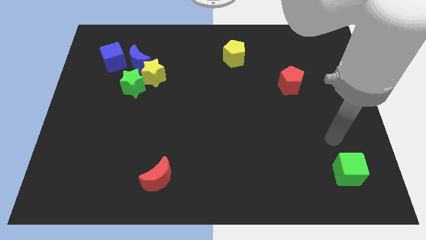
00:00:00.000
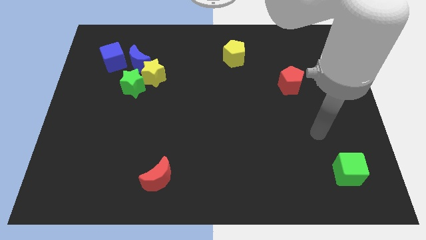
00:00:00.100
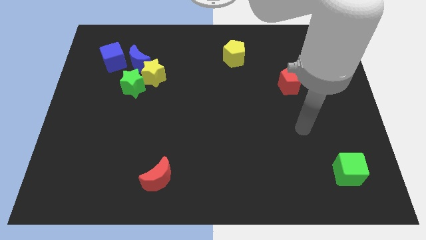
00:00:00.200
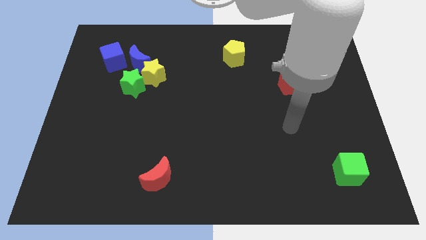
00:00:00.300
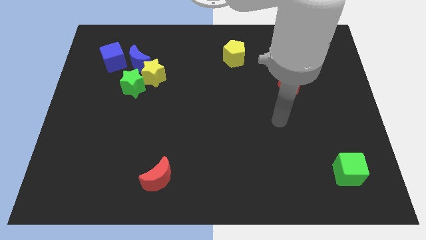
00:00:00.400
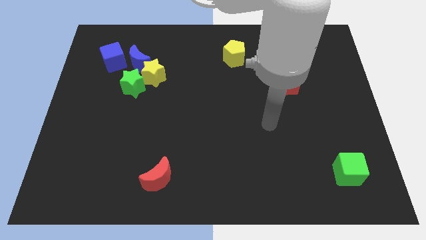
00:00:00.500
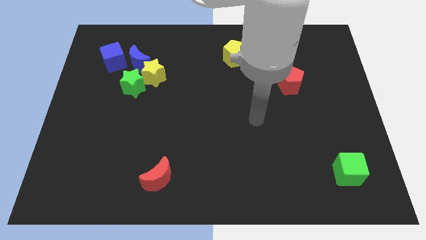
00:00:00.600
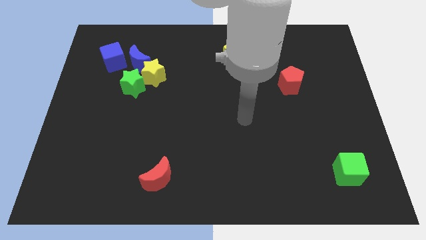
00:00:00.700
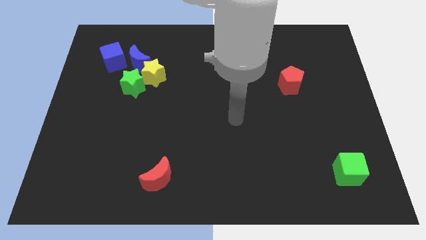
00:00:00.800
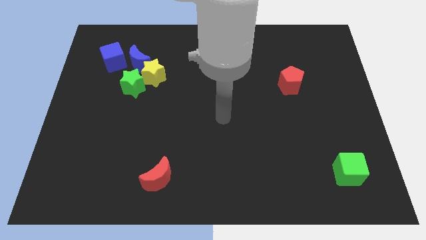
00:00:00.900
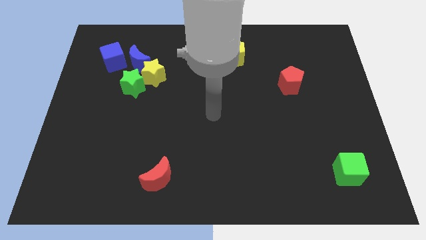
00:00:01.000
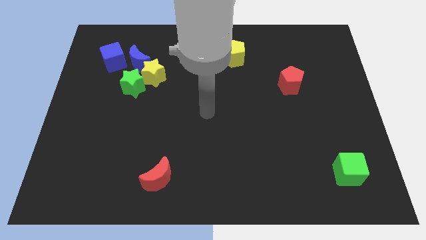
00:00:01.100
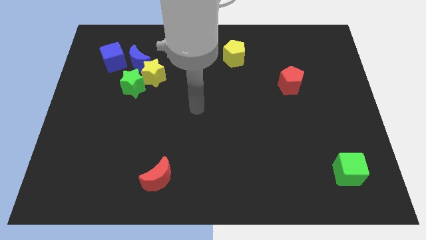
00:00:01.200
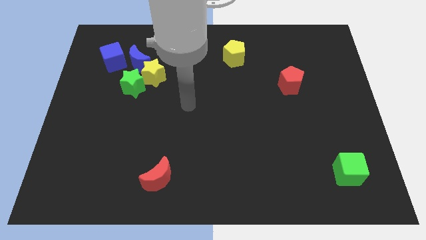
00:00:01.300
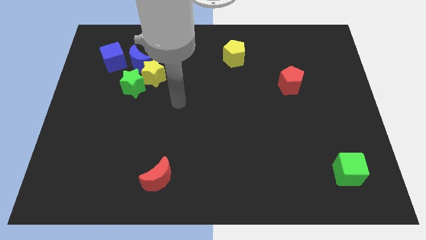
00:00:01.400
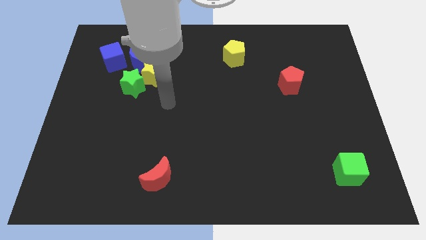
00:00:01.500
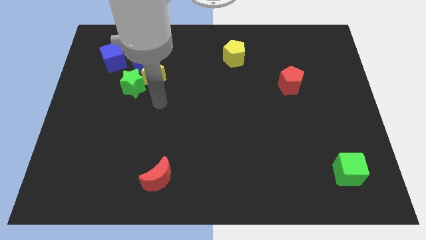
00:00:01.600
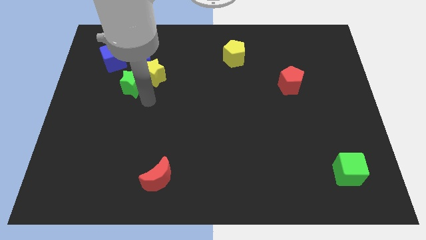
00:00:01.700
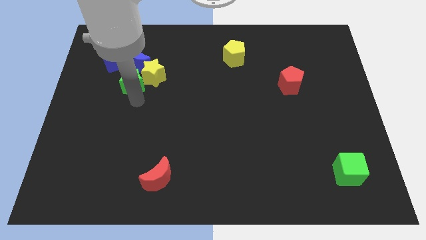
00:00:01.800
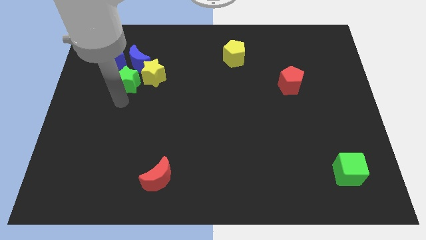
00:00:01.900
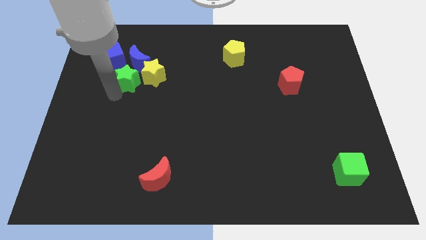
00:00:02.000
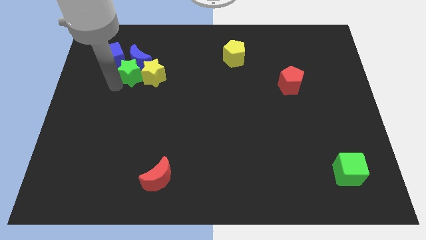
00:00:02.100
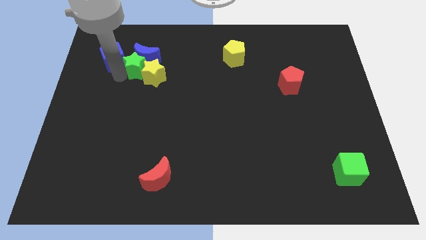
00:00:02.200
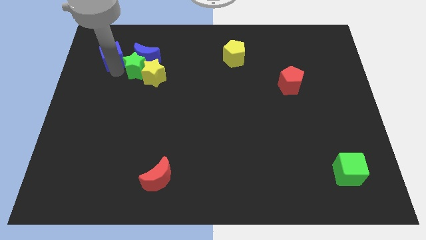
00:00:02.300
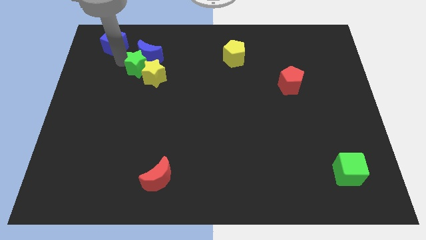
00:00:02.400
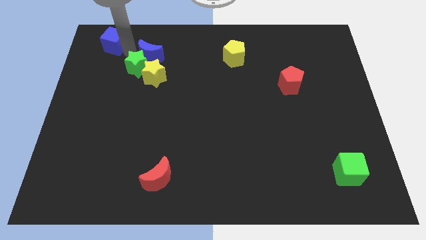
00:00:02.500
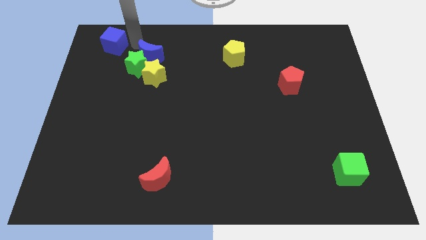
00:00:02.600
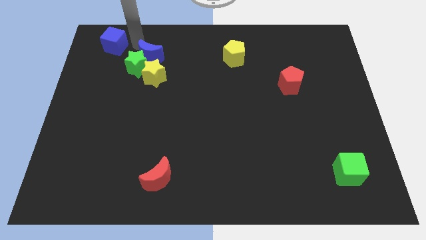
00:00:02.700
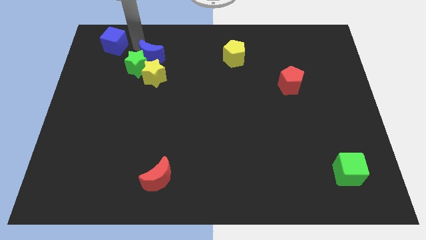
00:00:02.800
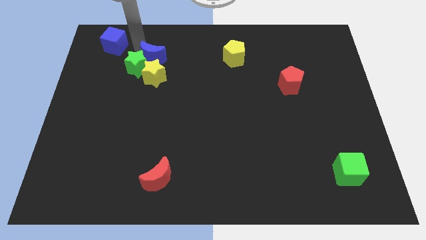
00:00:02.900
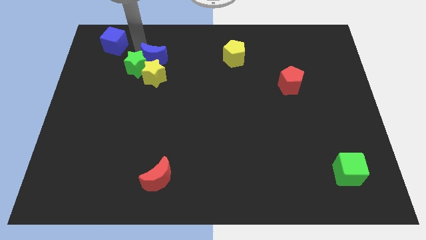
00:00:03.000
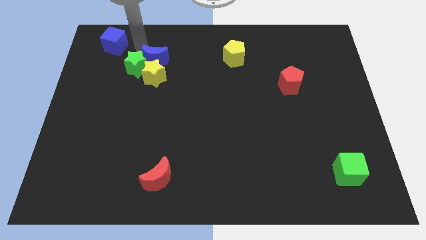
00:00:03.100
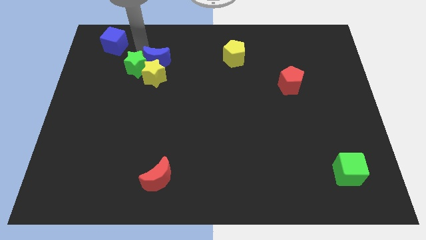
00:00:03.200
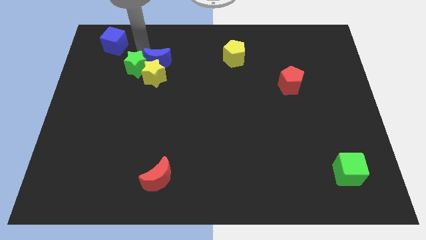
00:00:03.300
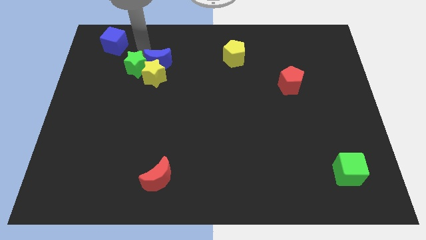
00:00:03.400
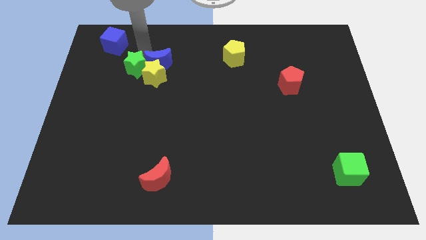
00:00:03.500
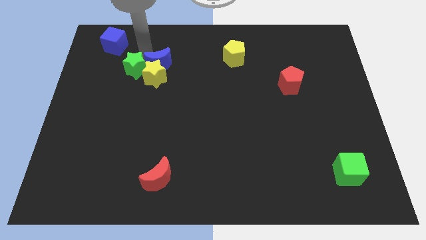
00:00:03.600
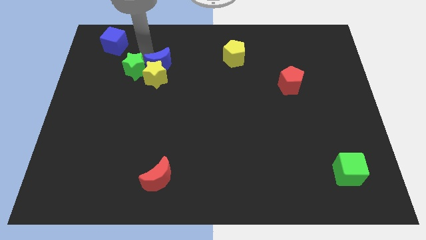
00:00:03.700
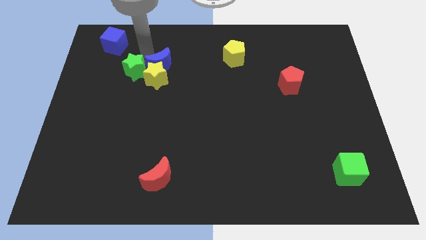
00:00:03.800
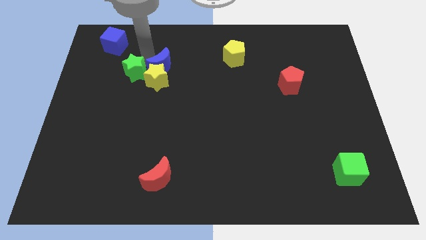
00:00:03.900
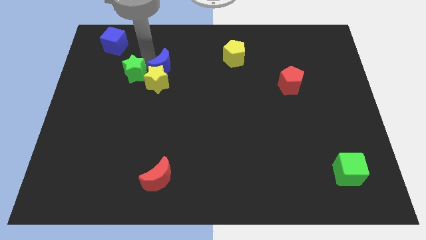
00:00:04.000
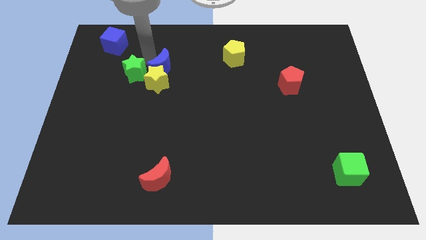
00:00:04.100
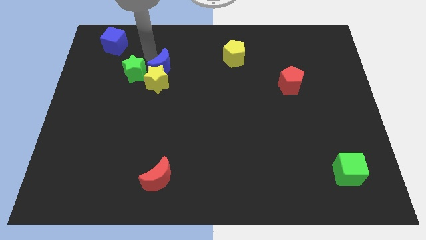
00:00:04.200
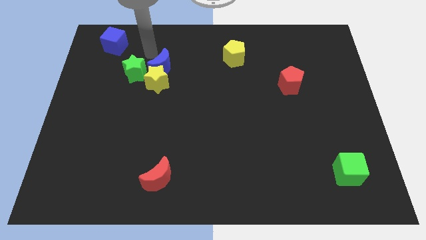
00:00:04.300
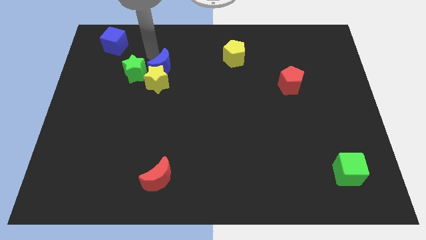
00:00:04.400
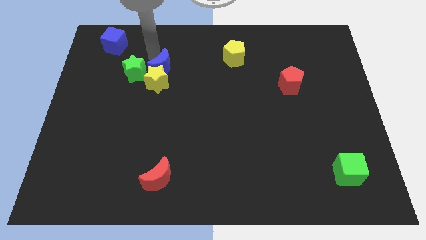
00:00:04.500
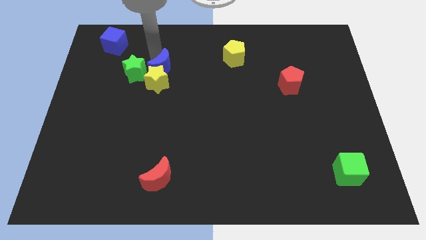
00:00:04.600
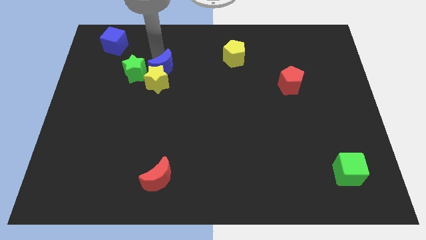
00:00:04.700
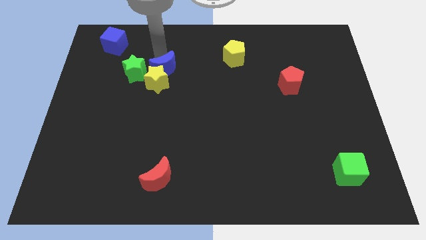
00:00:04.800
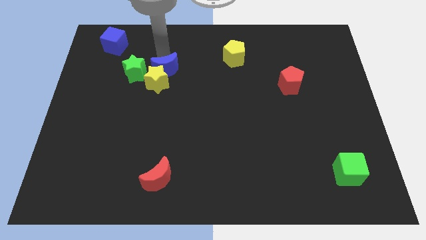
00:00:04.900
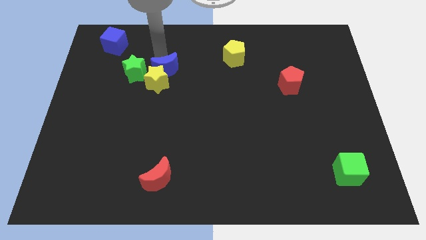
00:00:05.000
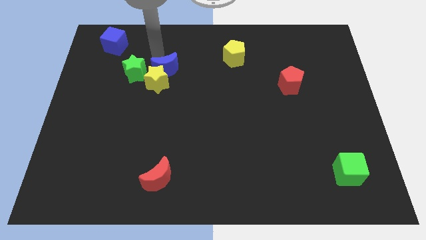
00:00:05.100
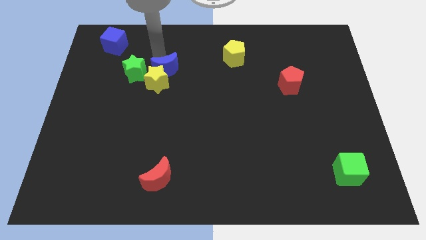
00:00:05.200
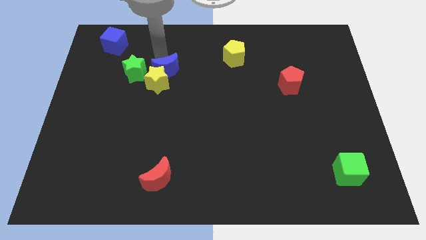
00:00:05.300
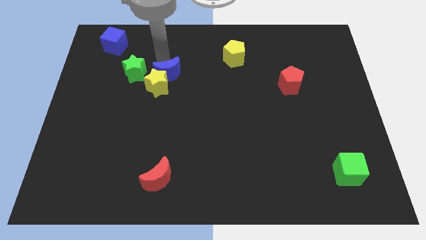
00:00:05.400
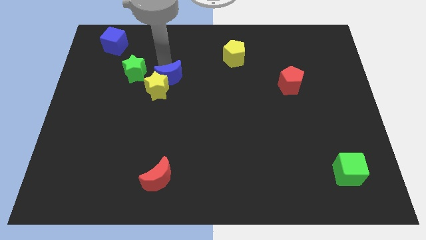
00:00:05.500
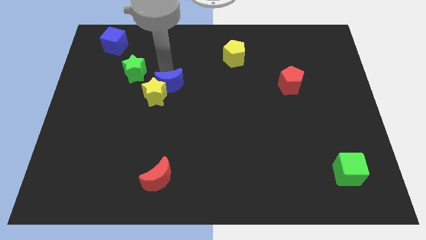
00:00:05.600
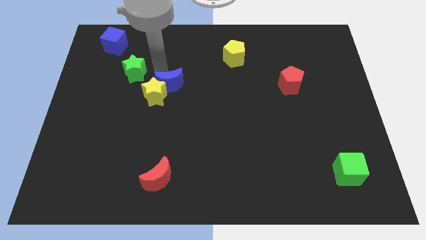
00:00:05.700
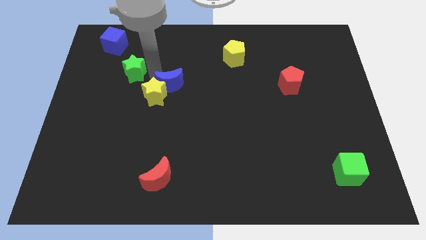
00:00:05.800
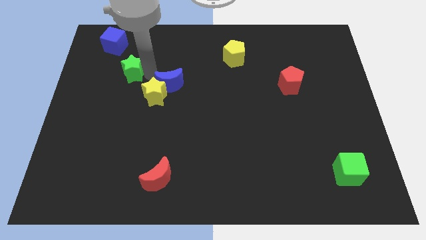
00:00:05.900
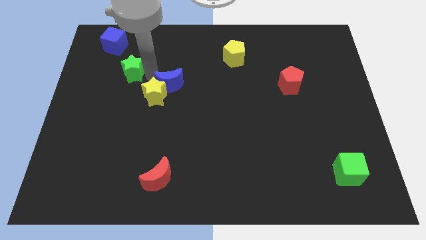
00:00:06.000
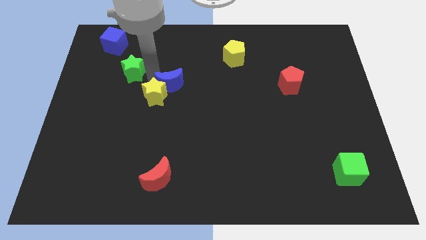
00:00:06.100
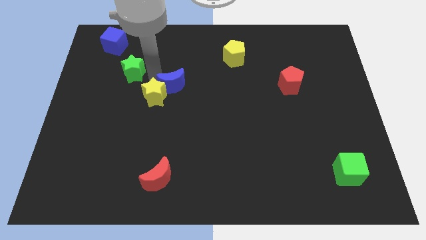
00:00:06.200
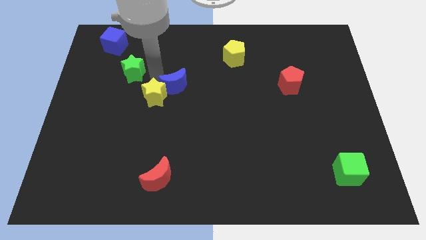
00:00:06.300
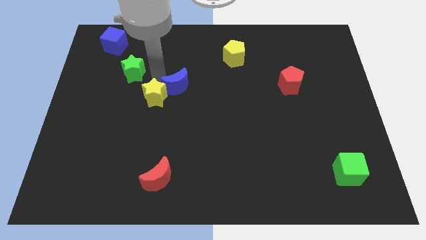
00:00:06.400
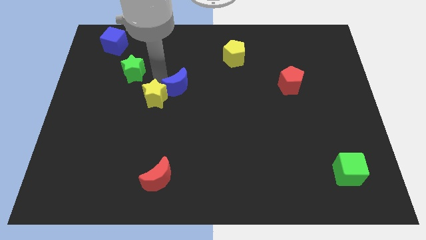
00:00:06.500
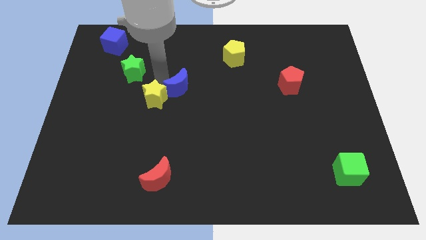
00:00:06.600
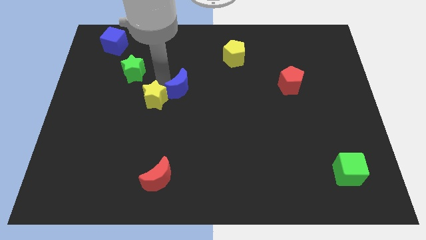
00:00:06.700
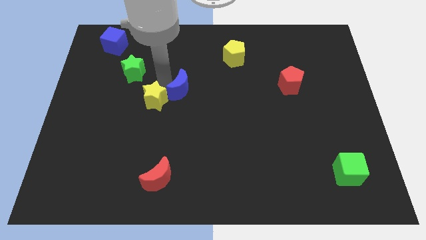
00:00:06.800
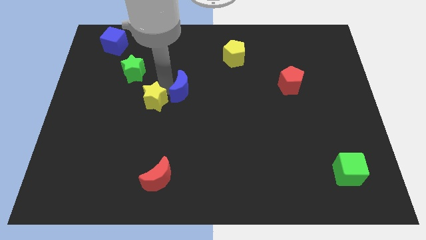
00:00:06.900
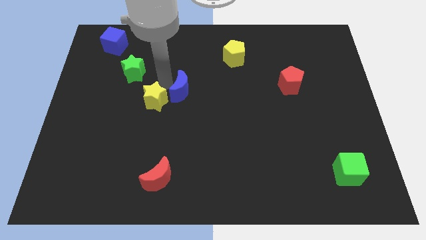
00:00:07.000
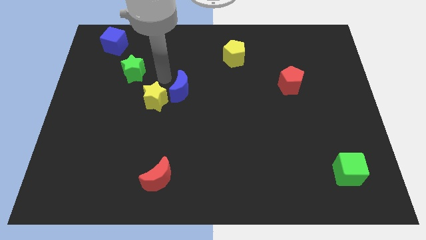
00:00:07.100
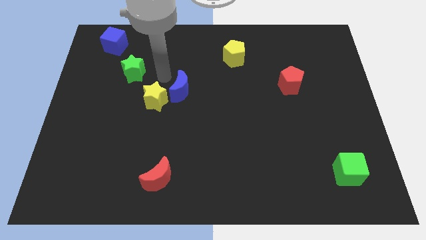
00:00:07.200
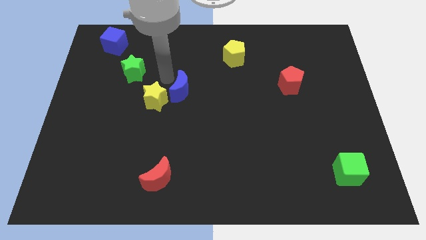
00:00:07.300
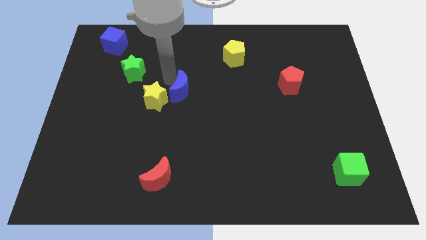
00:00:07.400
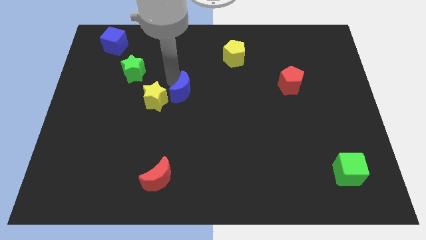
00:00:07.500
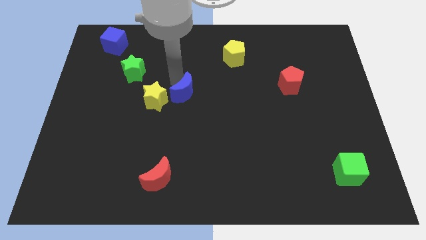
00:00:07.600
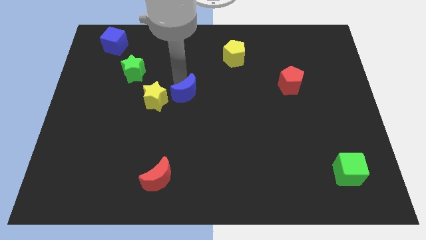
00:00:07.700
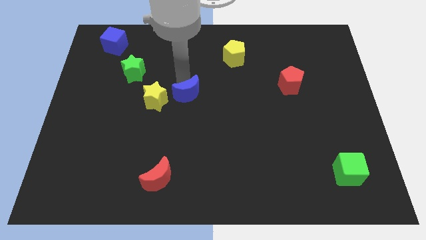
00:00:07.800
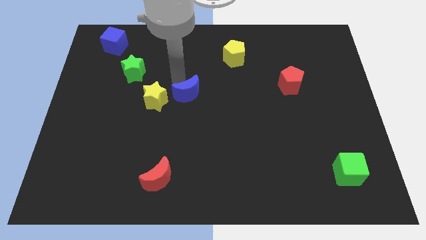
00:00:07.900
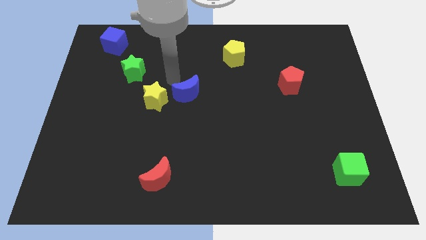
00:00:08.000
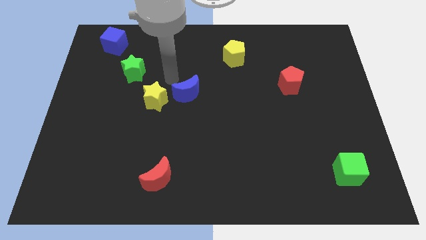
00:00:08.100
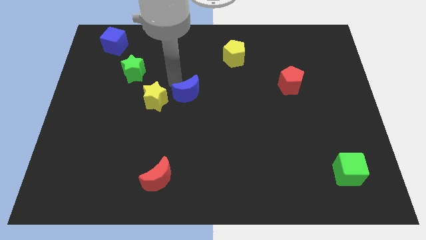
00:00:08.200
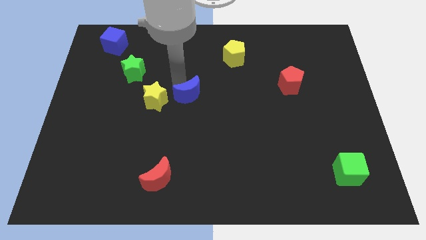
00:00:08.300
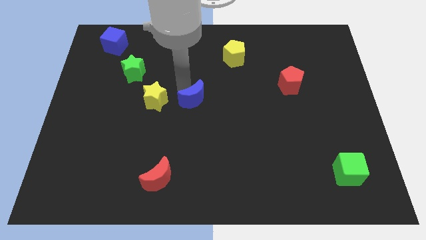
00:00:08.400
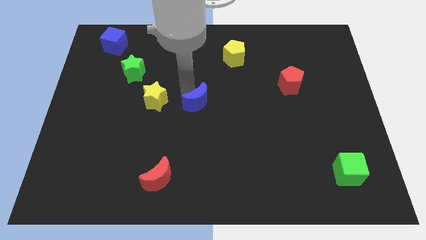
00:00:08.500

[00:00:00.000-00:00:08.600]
slide the blue moon diagonally down and right
